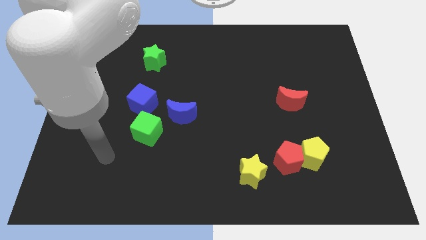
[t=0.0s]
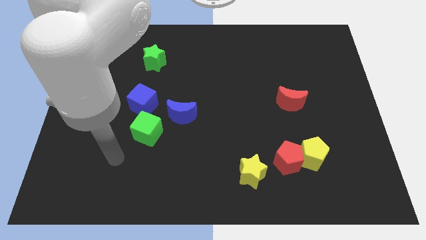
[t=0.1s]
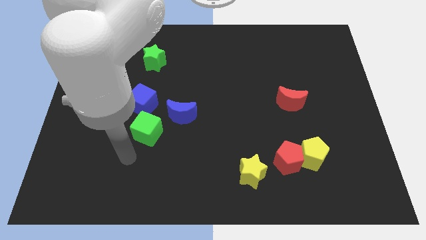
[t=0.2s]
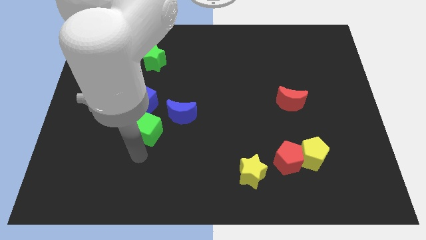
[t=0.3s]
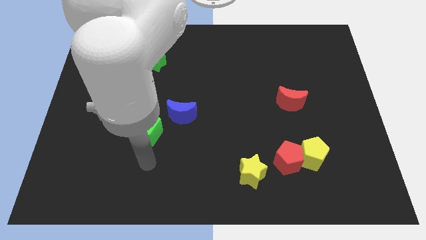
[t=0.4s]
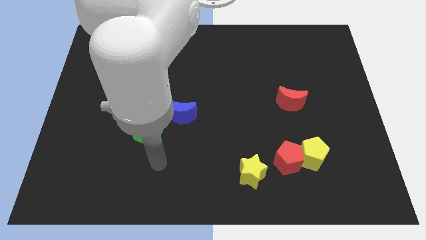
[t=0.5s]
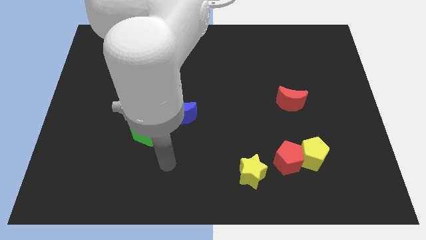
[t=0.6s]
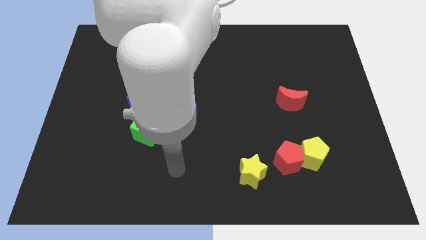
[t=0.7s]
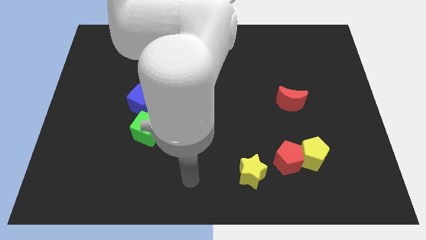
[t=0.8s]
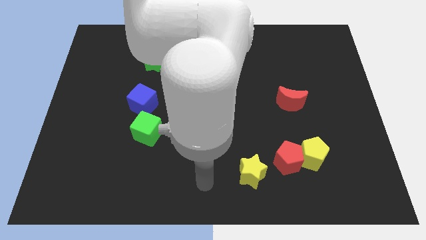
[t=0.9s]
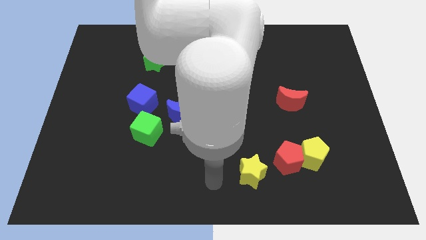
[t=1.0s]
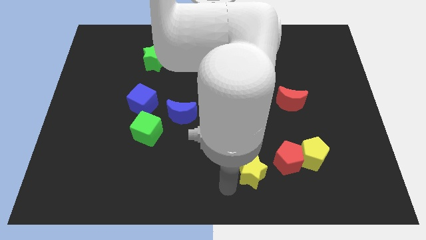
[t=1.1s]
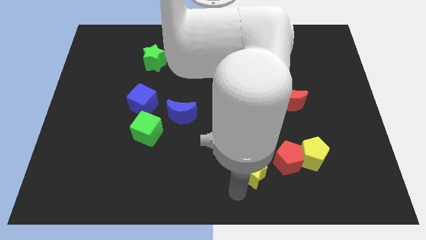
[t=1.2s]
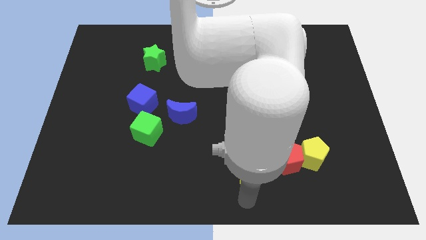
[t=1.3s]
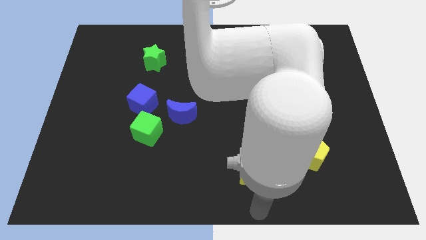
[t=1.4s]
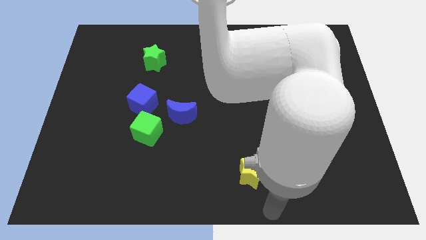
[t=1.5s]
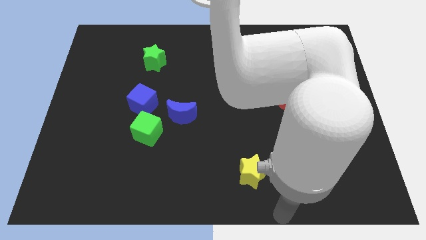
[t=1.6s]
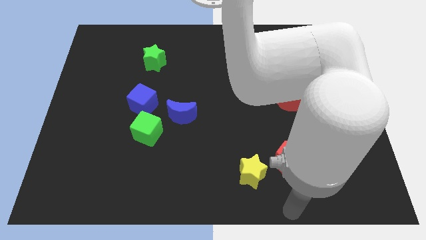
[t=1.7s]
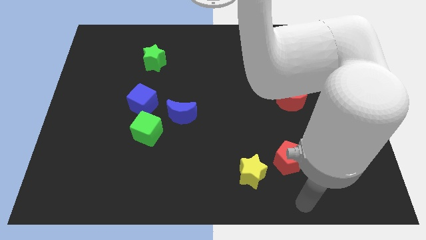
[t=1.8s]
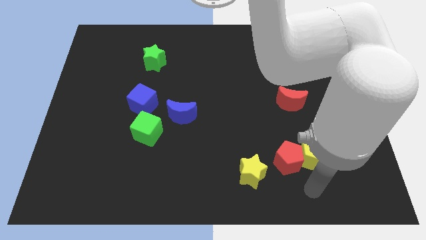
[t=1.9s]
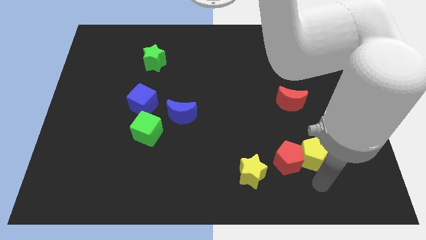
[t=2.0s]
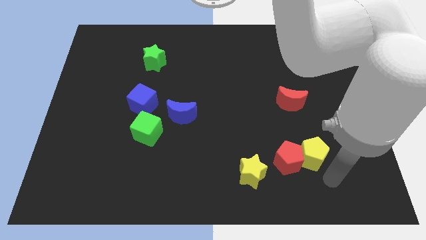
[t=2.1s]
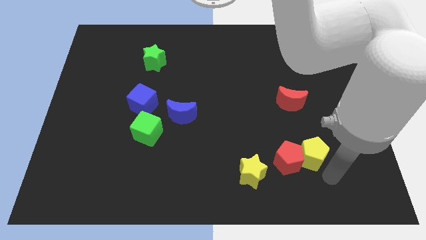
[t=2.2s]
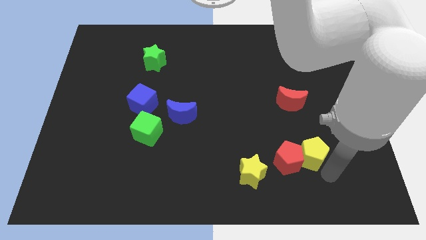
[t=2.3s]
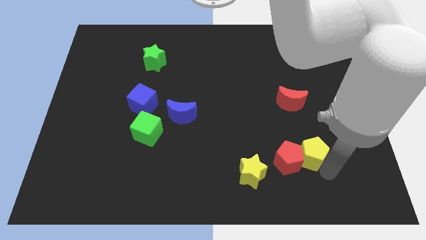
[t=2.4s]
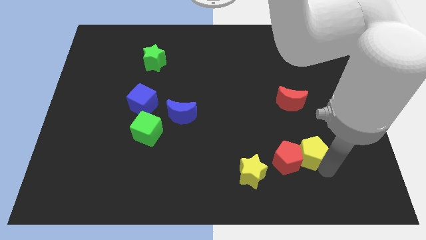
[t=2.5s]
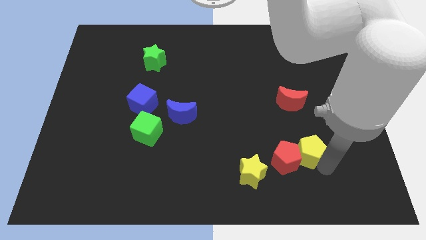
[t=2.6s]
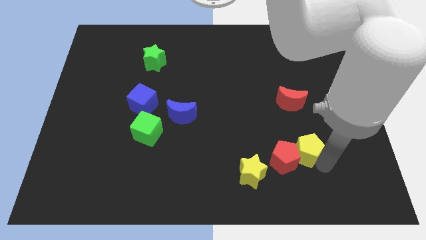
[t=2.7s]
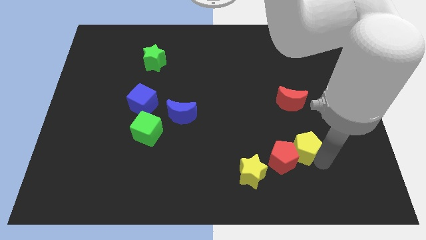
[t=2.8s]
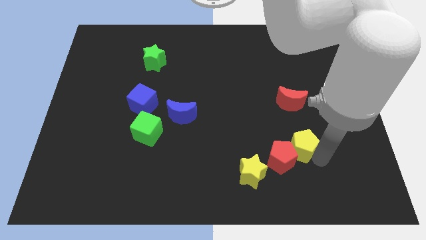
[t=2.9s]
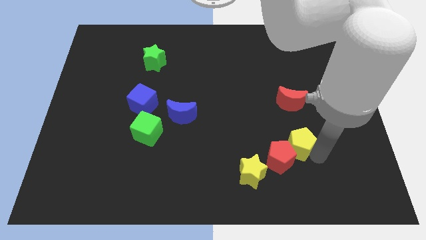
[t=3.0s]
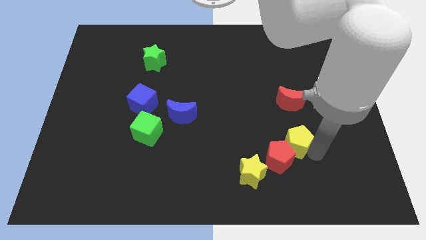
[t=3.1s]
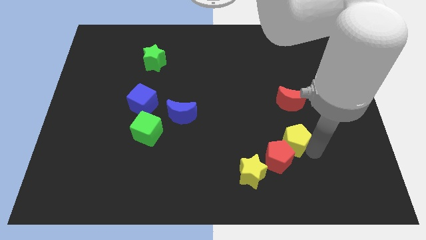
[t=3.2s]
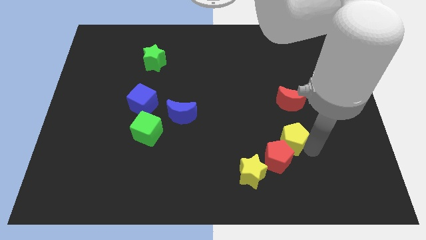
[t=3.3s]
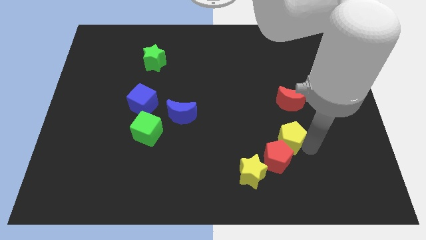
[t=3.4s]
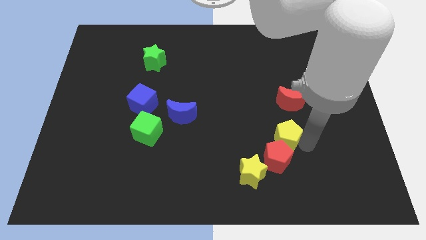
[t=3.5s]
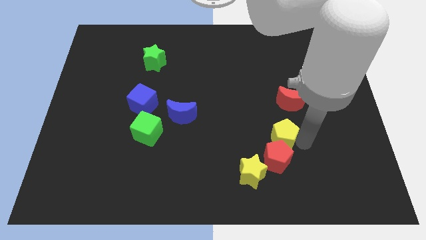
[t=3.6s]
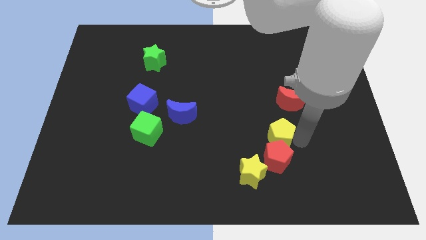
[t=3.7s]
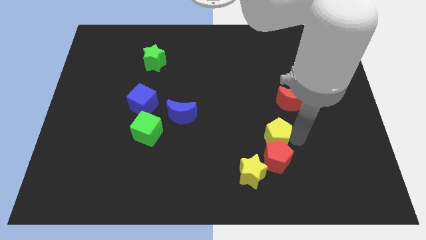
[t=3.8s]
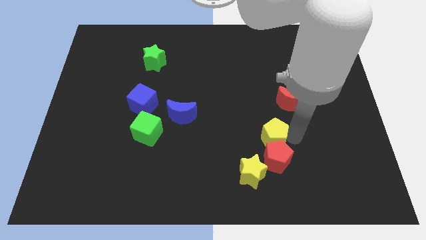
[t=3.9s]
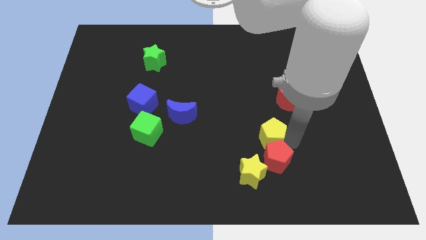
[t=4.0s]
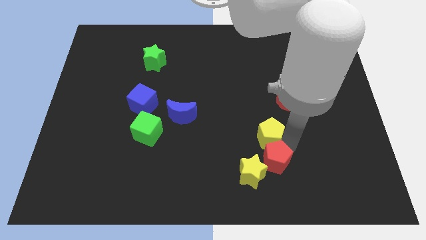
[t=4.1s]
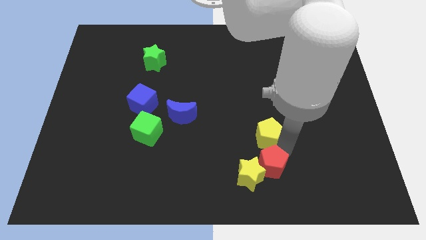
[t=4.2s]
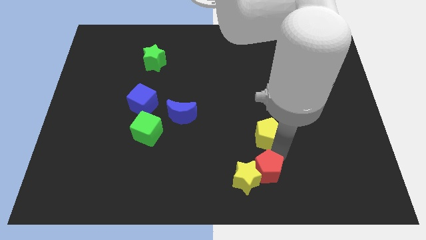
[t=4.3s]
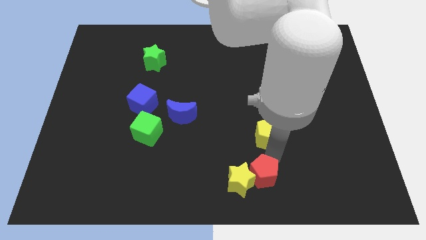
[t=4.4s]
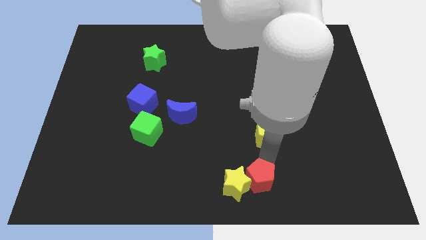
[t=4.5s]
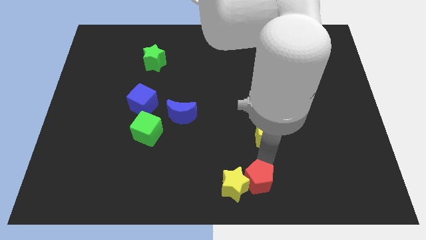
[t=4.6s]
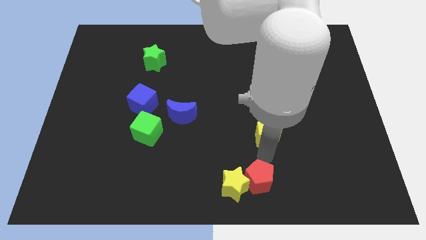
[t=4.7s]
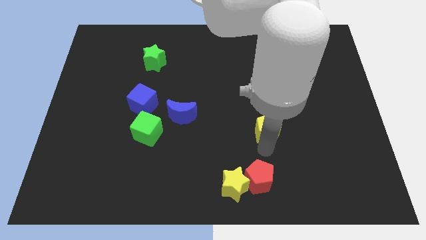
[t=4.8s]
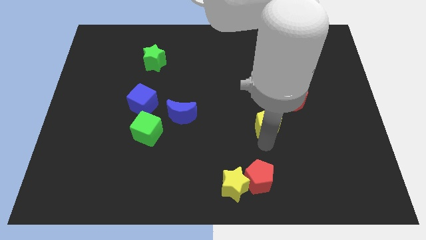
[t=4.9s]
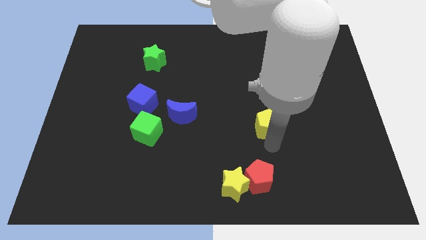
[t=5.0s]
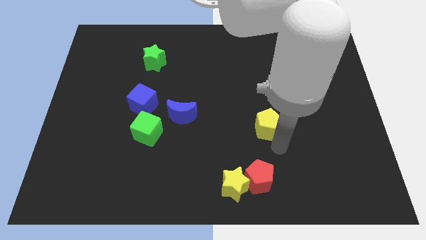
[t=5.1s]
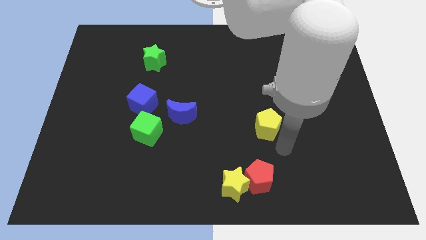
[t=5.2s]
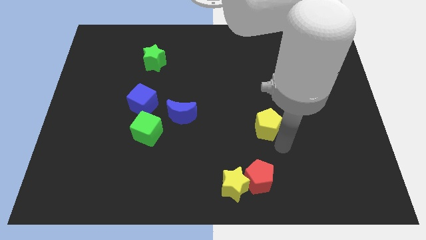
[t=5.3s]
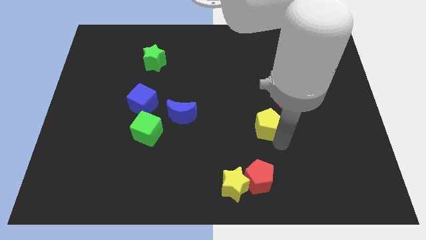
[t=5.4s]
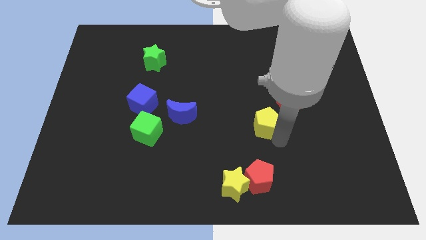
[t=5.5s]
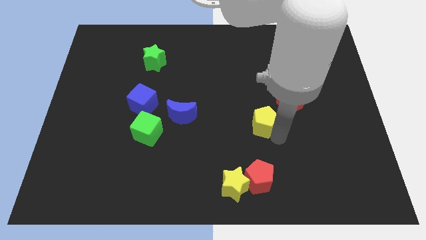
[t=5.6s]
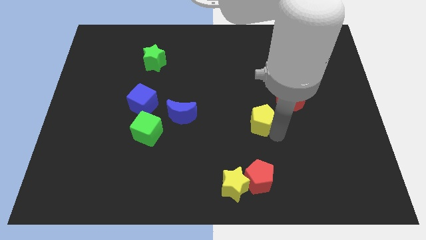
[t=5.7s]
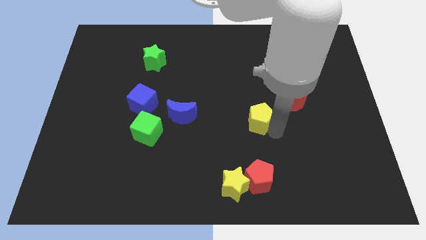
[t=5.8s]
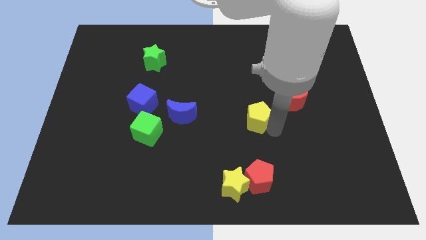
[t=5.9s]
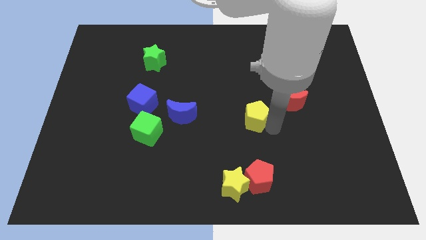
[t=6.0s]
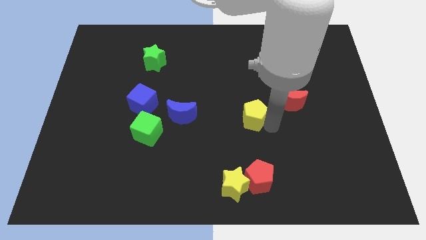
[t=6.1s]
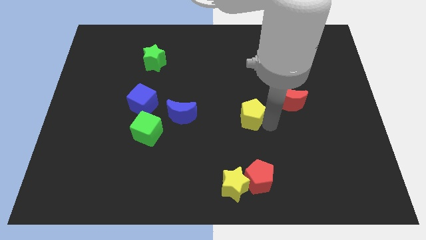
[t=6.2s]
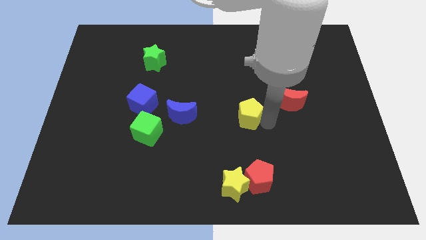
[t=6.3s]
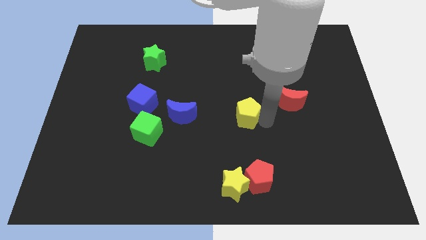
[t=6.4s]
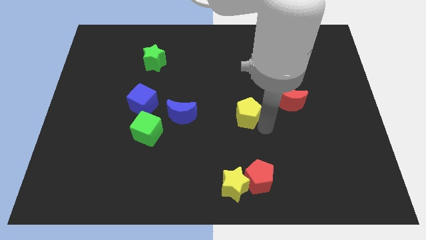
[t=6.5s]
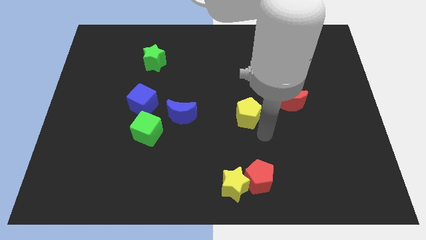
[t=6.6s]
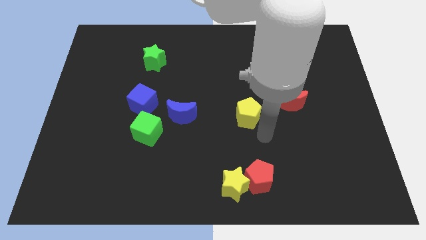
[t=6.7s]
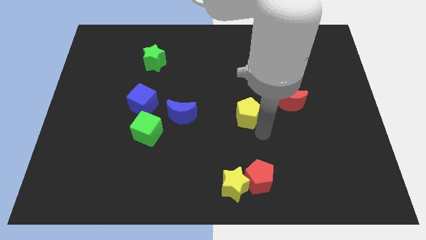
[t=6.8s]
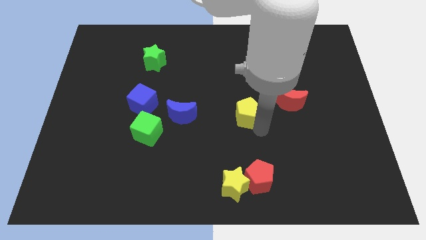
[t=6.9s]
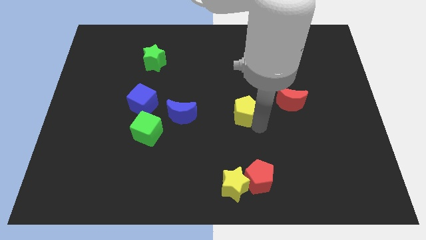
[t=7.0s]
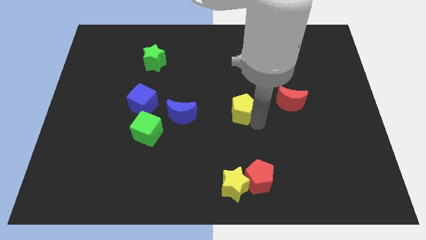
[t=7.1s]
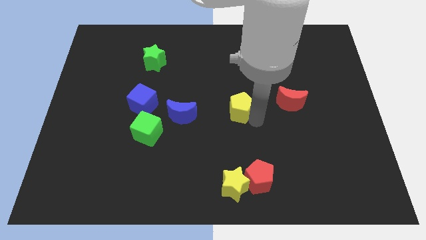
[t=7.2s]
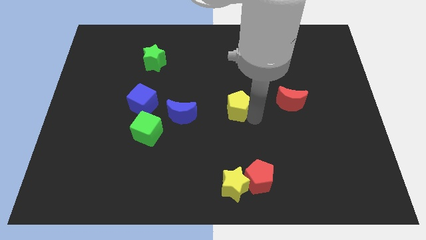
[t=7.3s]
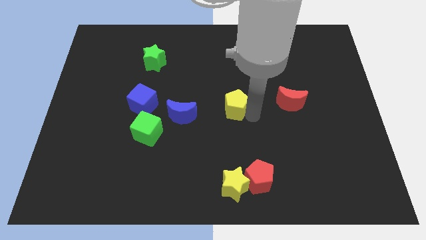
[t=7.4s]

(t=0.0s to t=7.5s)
slide the yellow pentagon upwards and then left

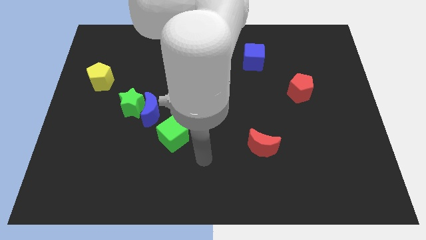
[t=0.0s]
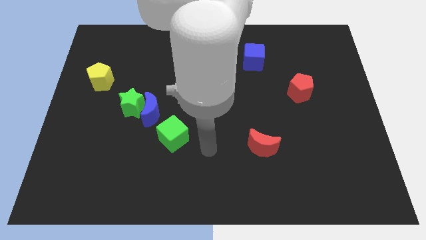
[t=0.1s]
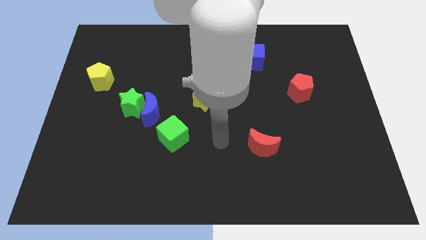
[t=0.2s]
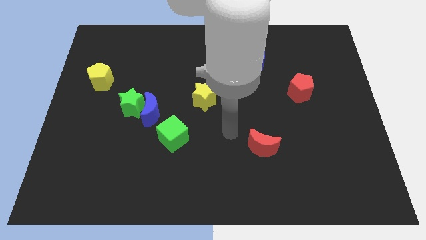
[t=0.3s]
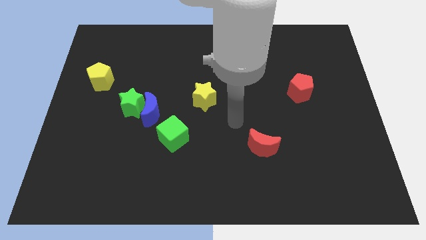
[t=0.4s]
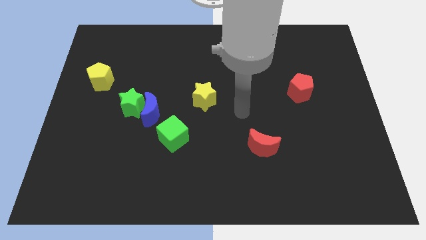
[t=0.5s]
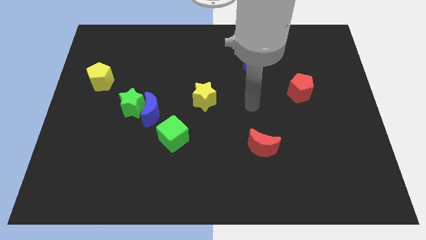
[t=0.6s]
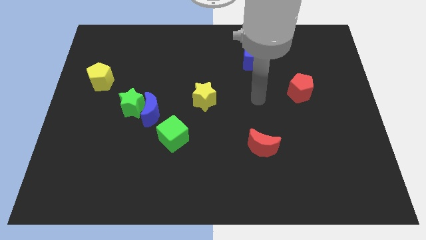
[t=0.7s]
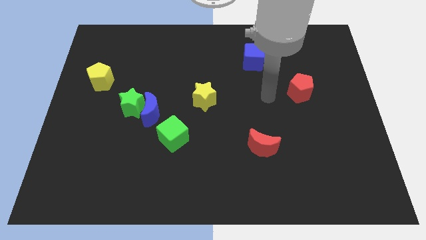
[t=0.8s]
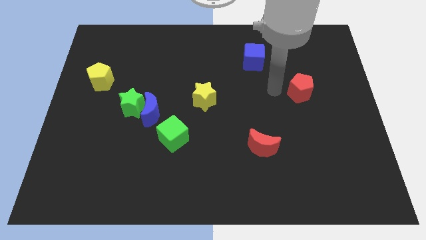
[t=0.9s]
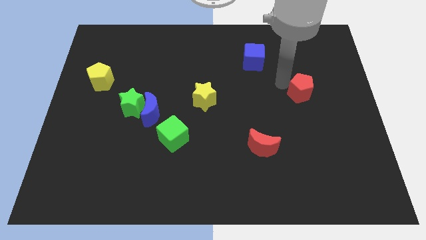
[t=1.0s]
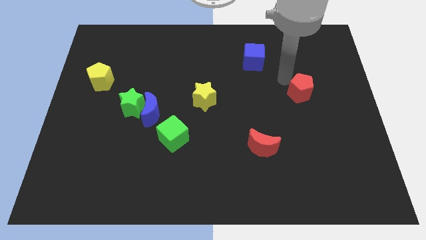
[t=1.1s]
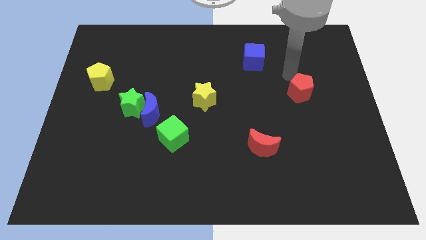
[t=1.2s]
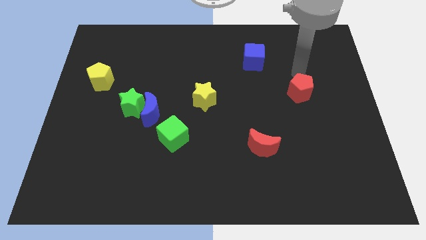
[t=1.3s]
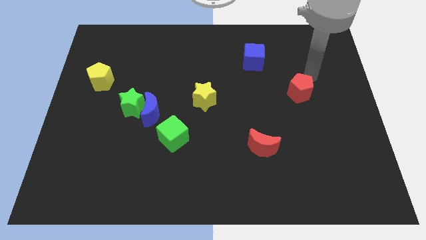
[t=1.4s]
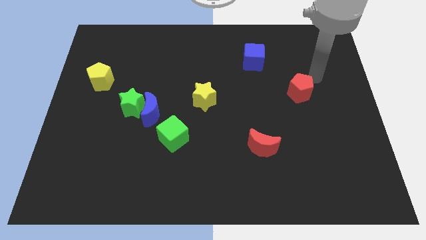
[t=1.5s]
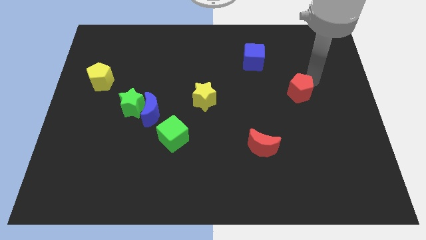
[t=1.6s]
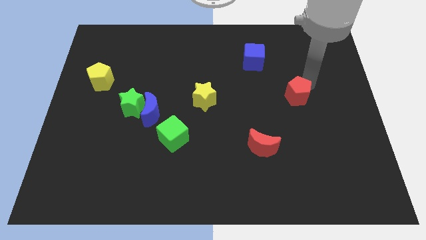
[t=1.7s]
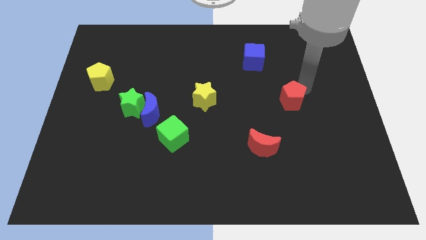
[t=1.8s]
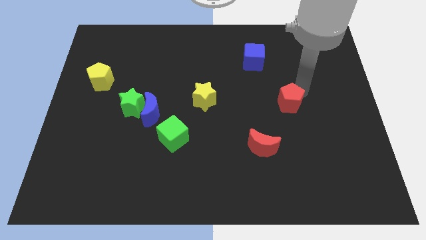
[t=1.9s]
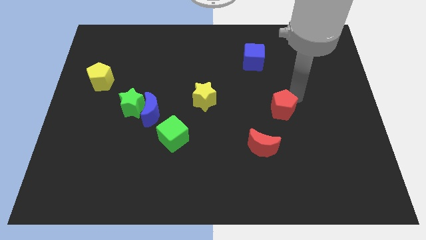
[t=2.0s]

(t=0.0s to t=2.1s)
slide the red pentagon somewhat downwards and left
